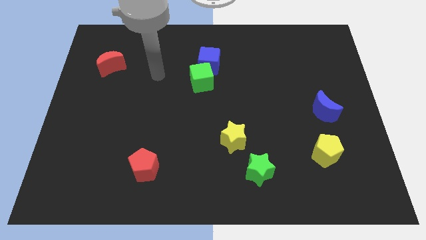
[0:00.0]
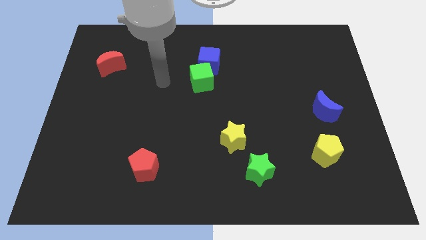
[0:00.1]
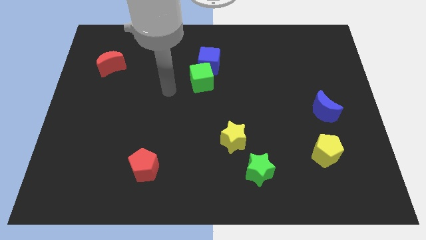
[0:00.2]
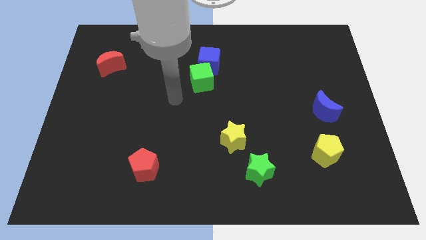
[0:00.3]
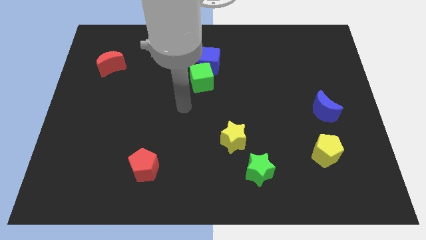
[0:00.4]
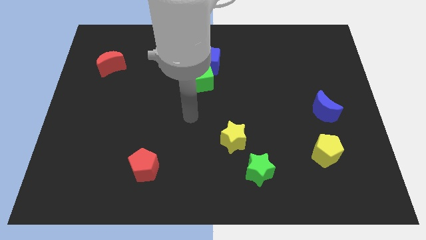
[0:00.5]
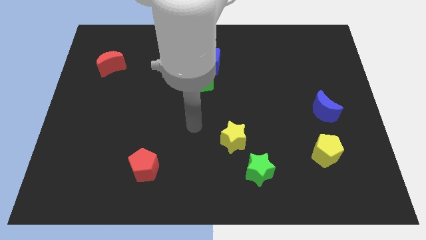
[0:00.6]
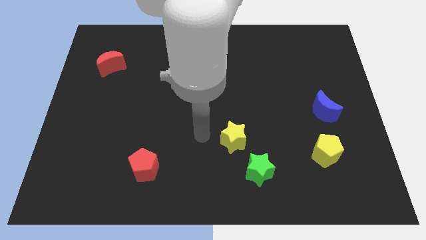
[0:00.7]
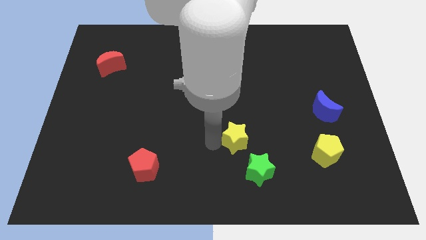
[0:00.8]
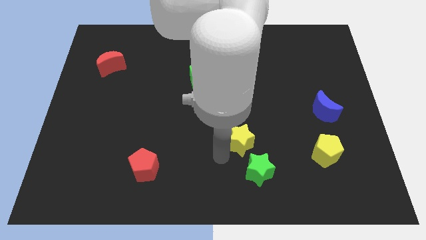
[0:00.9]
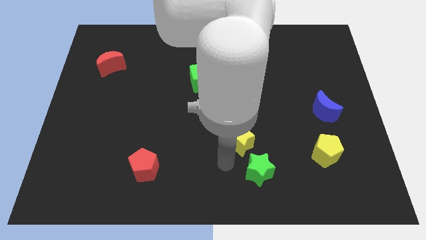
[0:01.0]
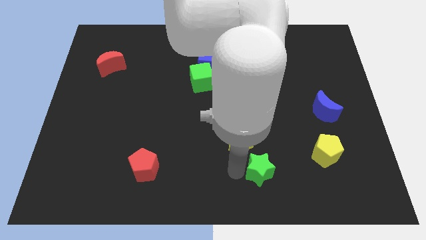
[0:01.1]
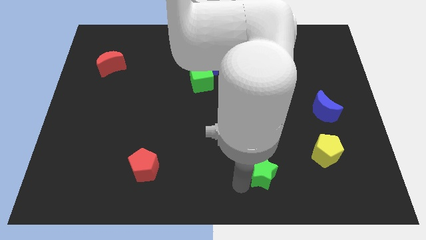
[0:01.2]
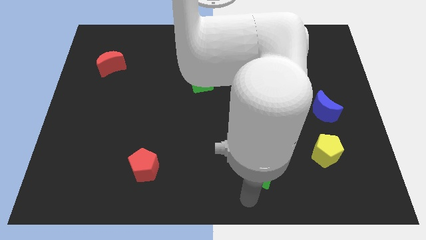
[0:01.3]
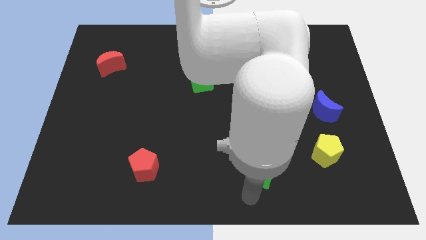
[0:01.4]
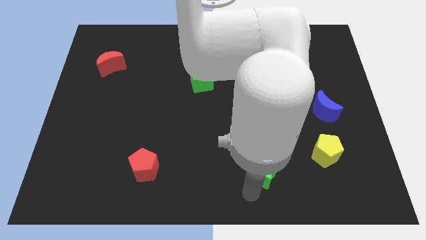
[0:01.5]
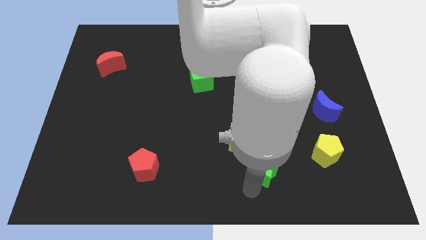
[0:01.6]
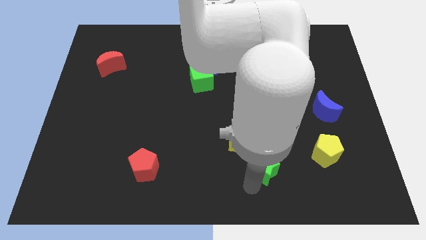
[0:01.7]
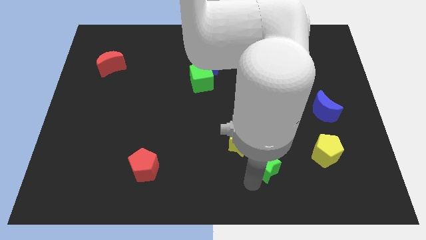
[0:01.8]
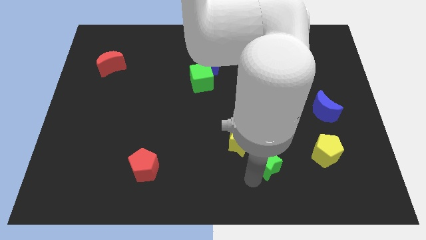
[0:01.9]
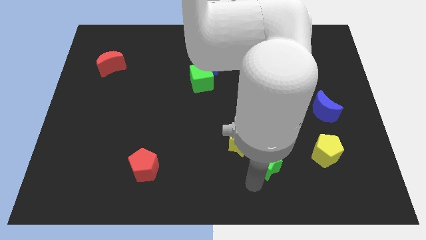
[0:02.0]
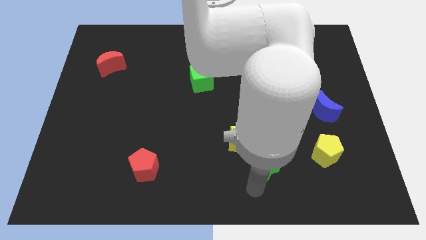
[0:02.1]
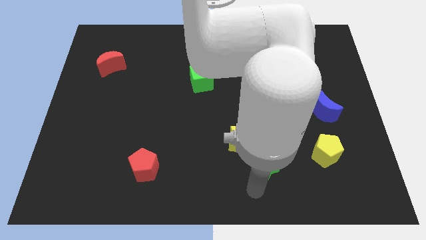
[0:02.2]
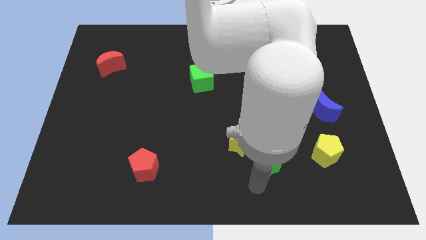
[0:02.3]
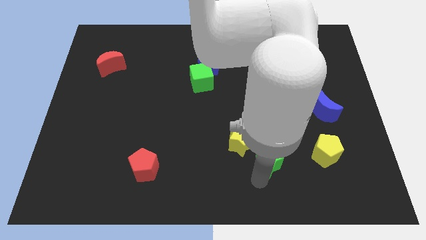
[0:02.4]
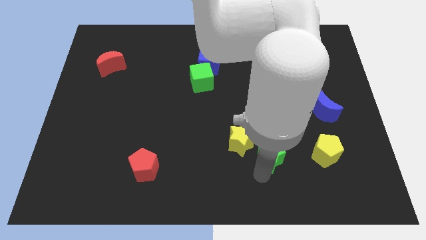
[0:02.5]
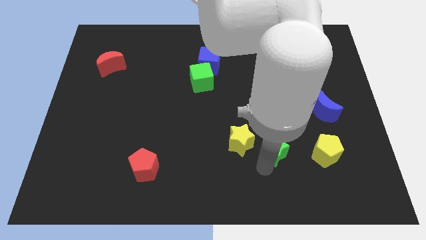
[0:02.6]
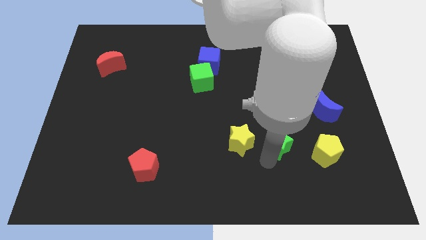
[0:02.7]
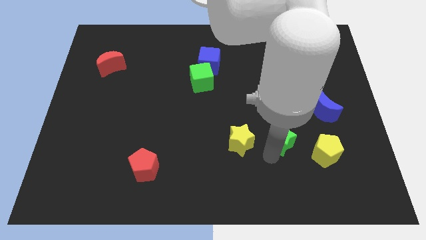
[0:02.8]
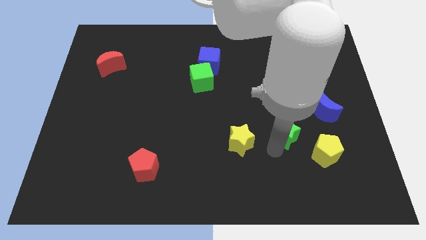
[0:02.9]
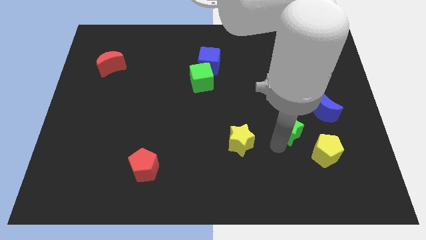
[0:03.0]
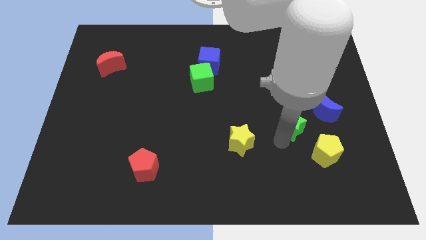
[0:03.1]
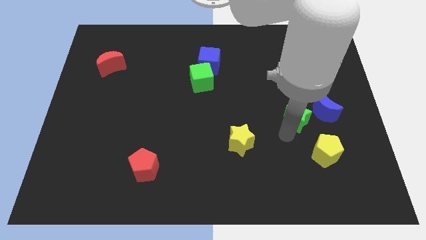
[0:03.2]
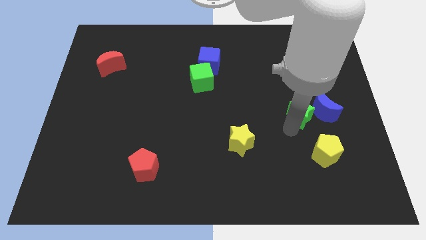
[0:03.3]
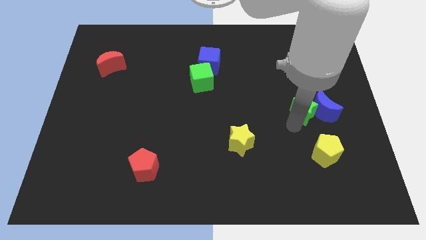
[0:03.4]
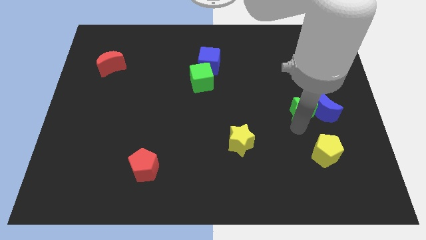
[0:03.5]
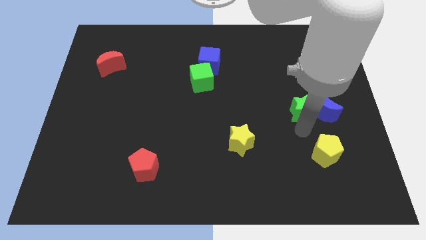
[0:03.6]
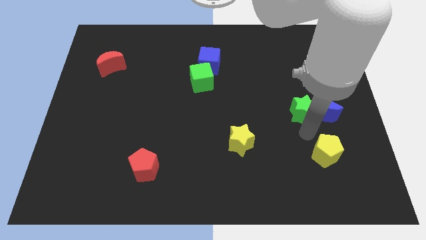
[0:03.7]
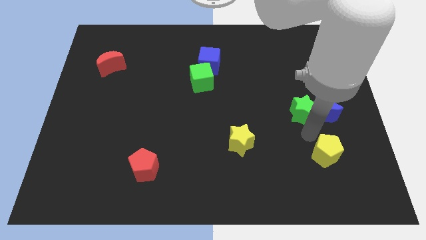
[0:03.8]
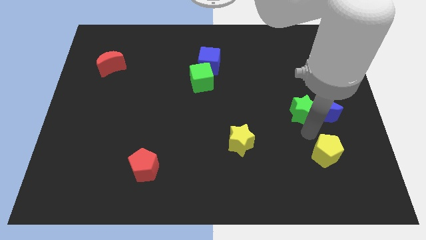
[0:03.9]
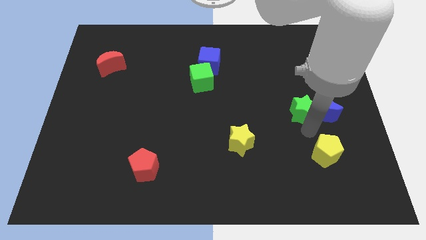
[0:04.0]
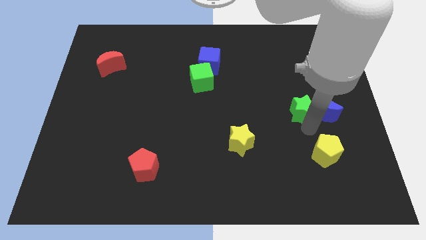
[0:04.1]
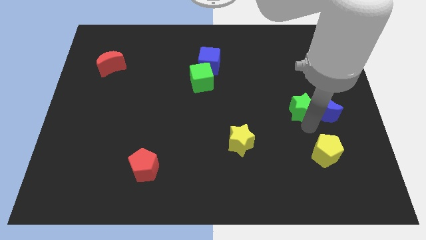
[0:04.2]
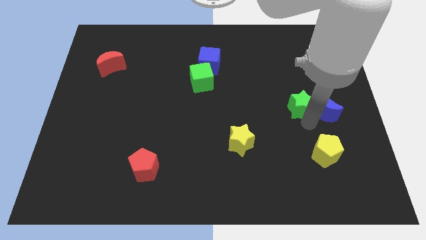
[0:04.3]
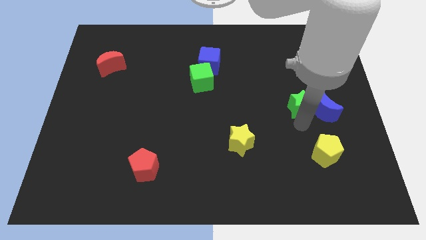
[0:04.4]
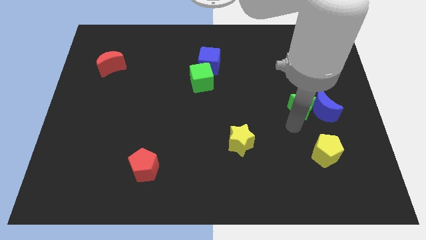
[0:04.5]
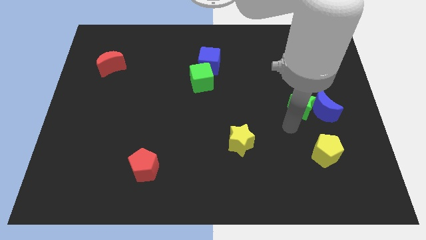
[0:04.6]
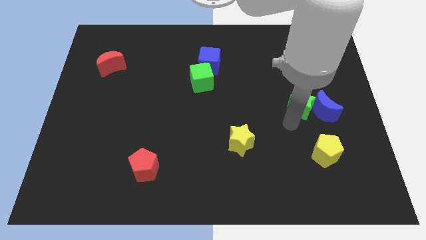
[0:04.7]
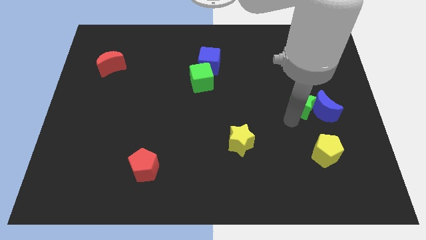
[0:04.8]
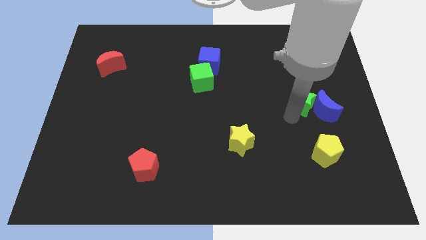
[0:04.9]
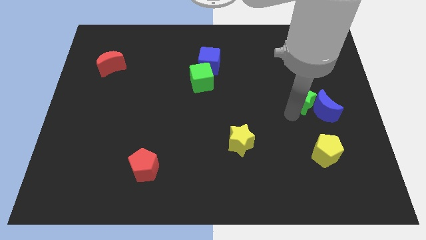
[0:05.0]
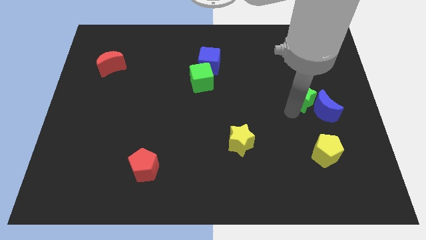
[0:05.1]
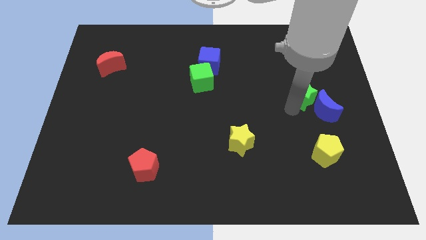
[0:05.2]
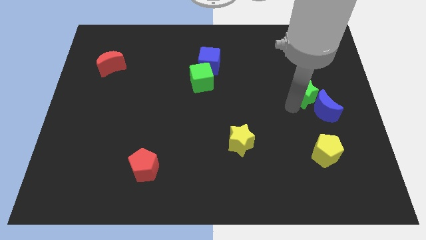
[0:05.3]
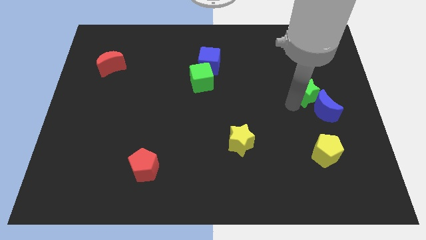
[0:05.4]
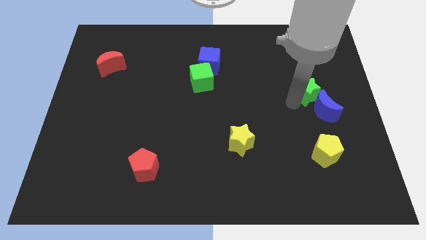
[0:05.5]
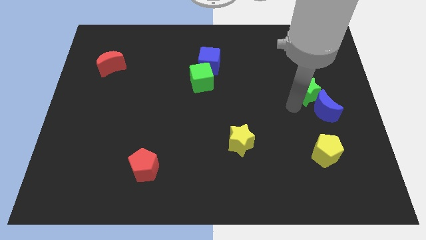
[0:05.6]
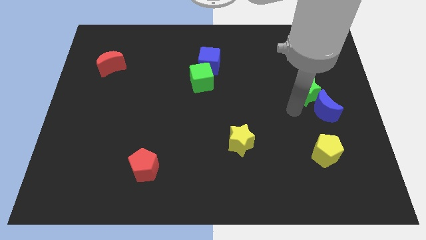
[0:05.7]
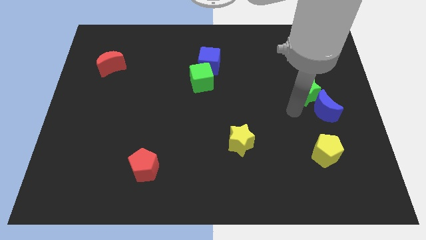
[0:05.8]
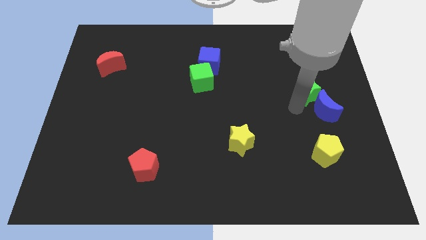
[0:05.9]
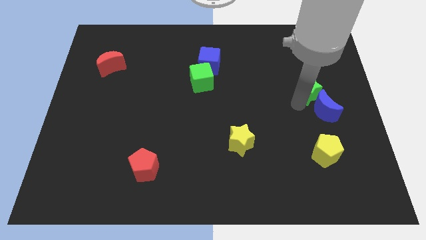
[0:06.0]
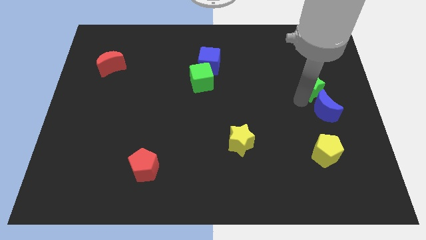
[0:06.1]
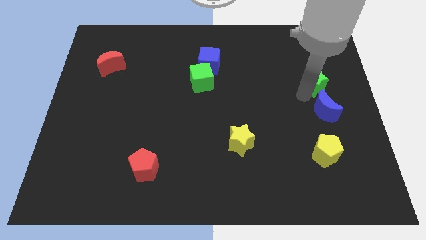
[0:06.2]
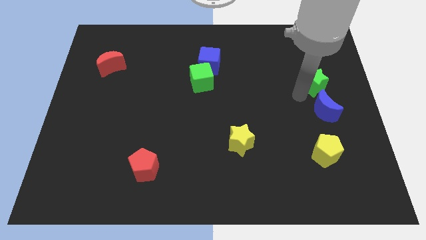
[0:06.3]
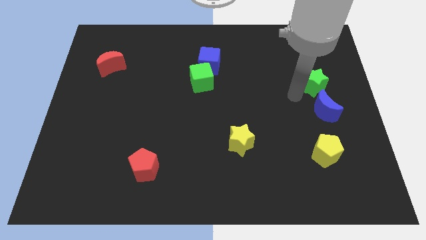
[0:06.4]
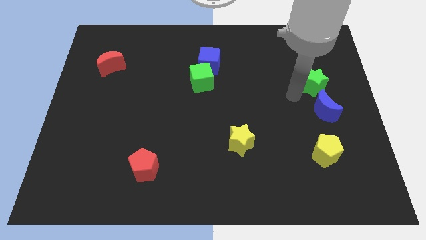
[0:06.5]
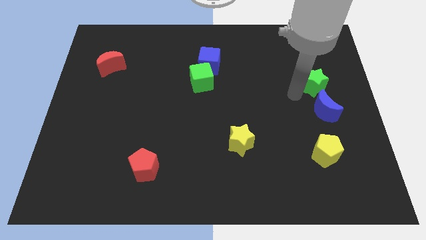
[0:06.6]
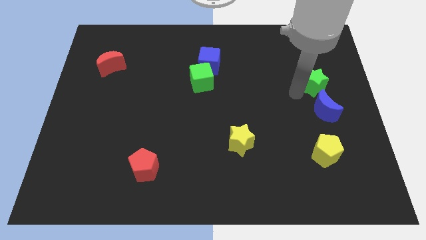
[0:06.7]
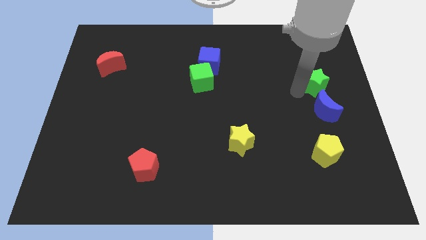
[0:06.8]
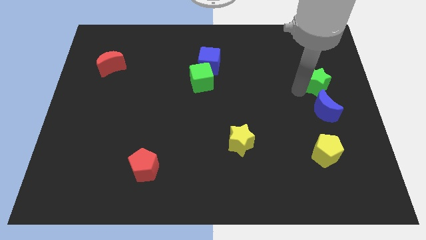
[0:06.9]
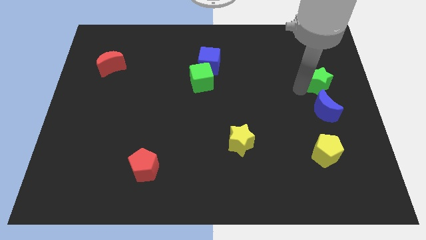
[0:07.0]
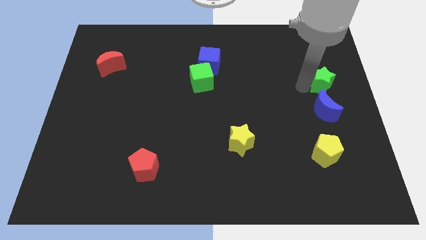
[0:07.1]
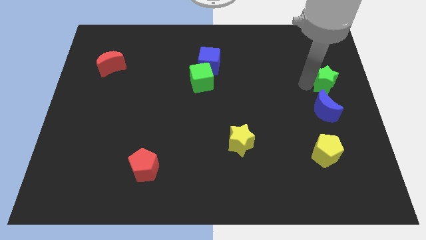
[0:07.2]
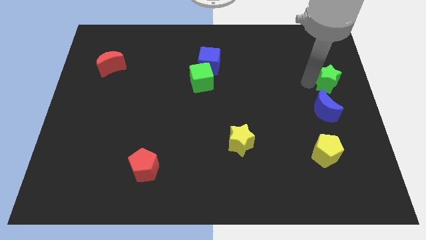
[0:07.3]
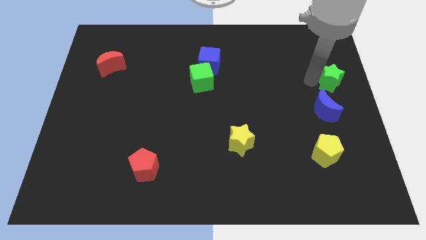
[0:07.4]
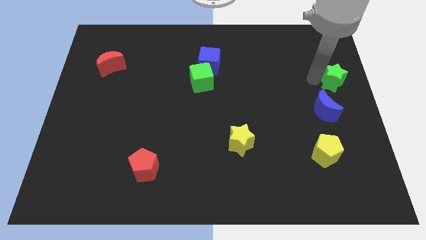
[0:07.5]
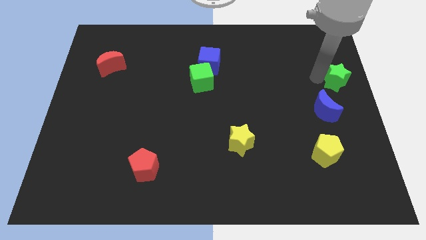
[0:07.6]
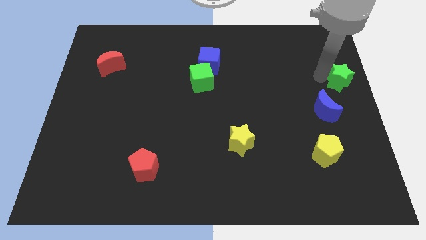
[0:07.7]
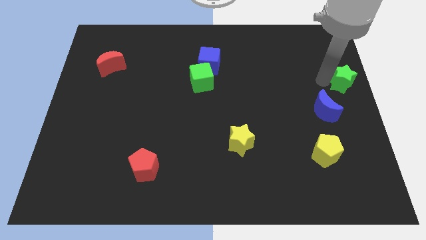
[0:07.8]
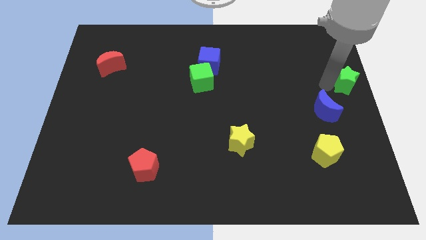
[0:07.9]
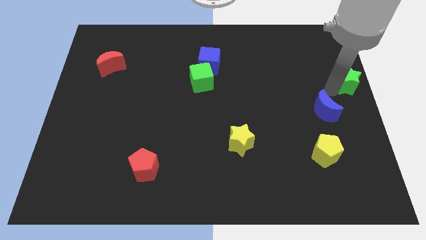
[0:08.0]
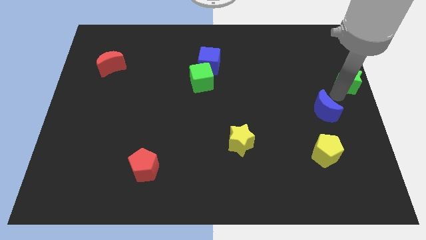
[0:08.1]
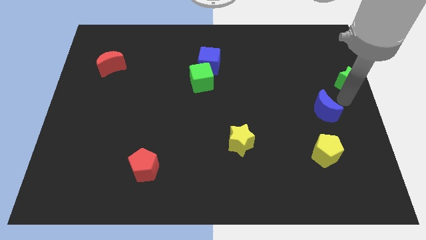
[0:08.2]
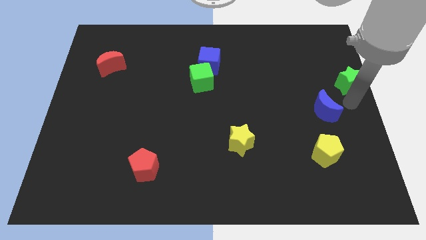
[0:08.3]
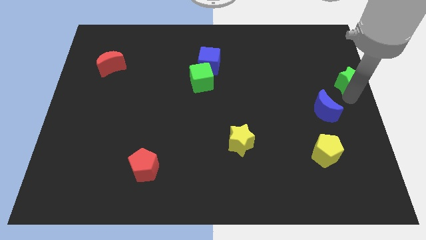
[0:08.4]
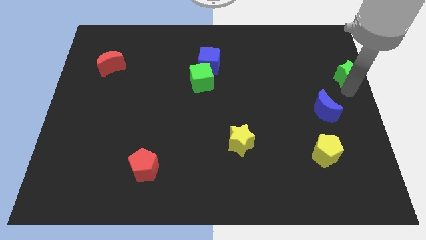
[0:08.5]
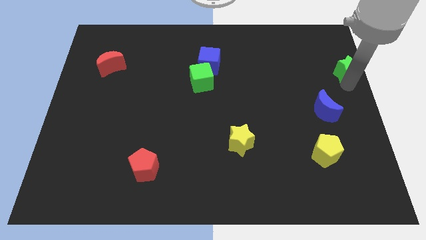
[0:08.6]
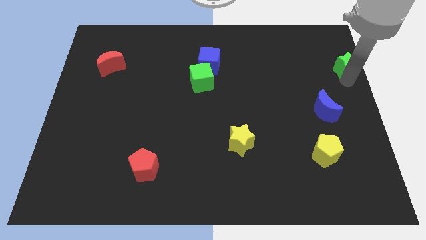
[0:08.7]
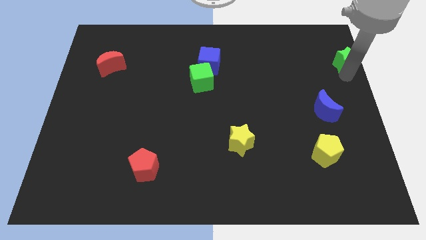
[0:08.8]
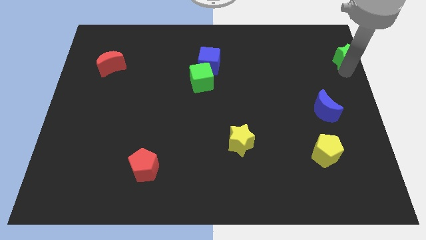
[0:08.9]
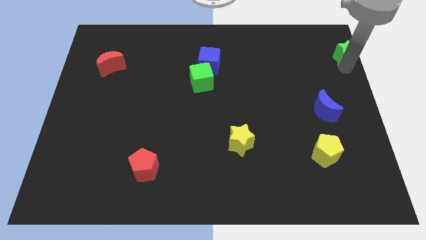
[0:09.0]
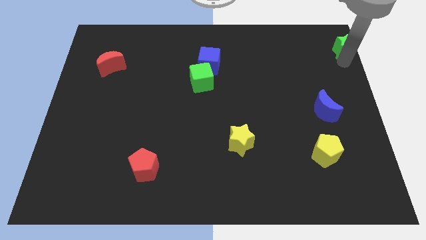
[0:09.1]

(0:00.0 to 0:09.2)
put the green star to the top right corner
